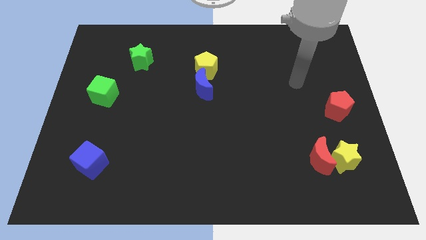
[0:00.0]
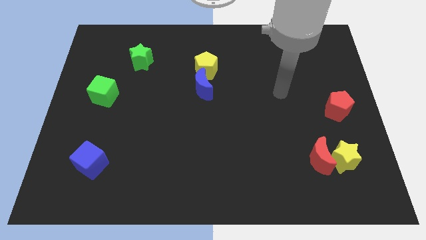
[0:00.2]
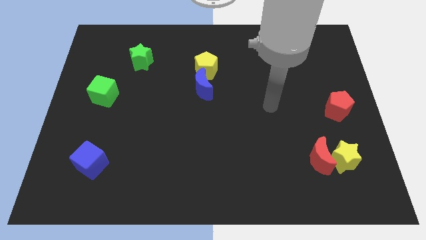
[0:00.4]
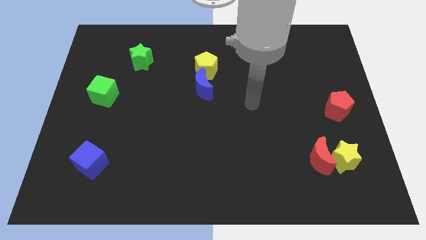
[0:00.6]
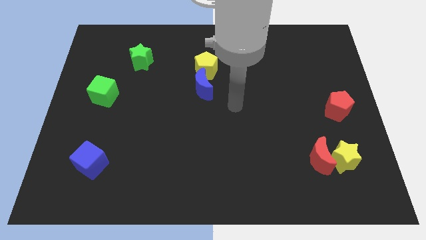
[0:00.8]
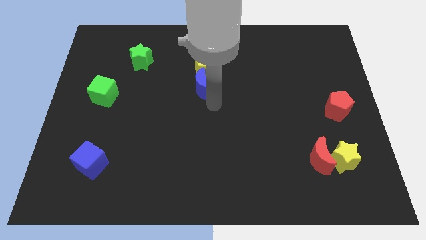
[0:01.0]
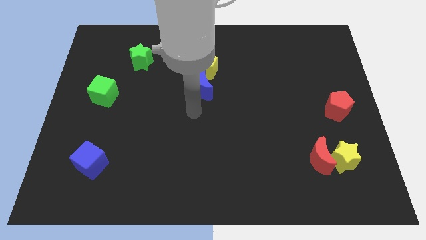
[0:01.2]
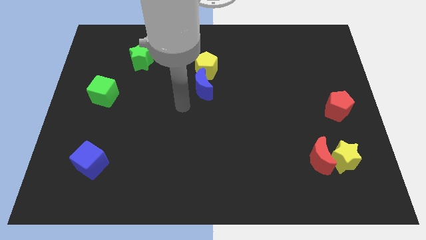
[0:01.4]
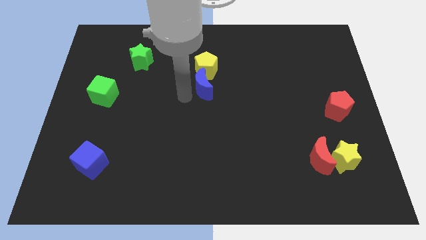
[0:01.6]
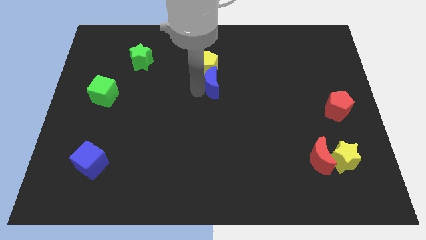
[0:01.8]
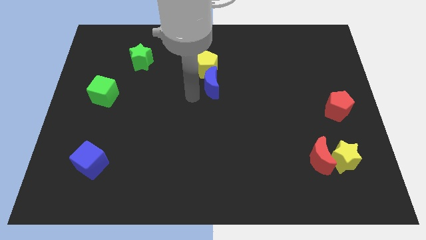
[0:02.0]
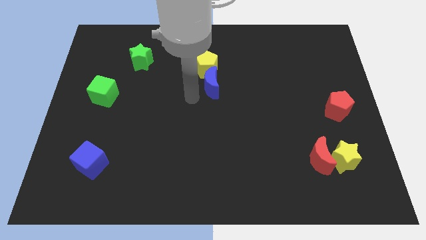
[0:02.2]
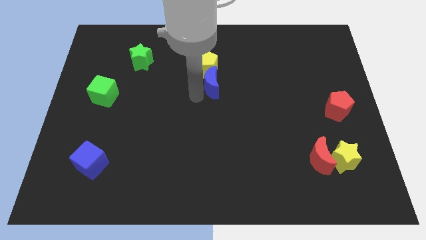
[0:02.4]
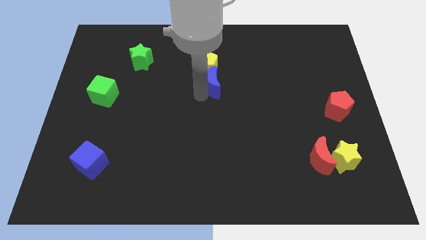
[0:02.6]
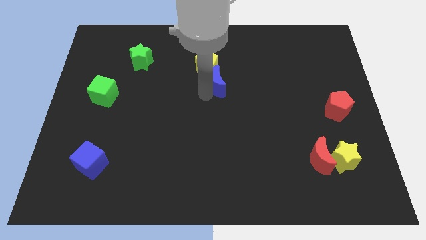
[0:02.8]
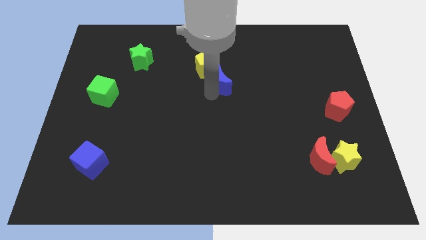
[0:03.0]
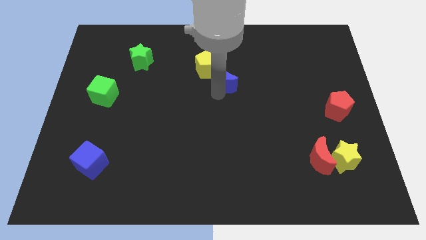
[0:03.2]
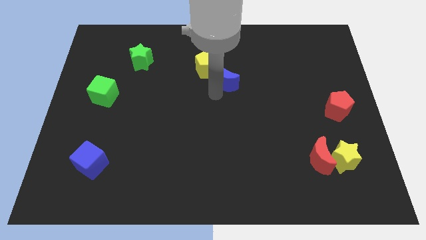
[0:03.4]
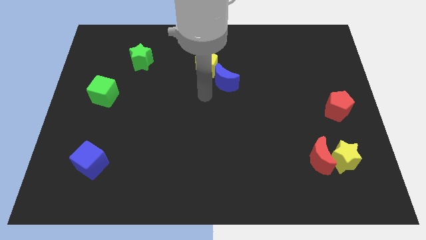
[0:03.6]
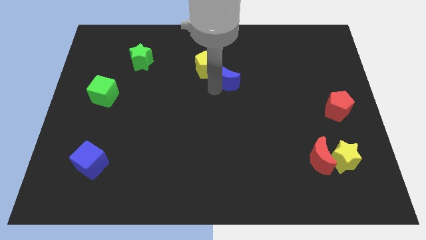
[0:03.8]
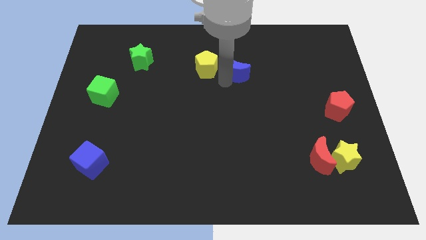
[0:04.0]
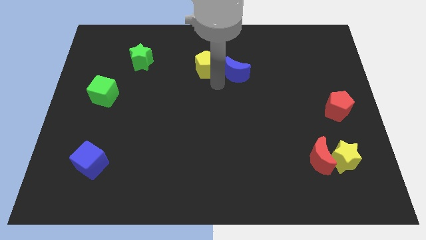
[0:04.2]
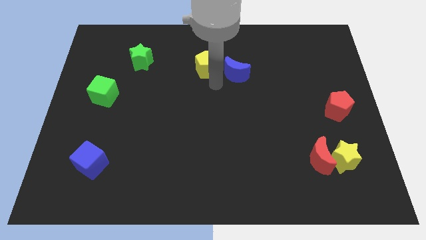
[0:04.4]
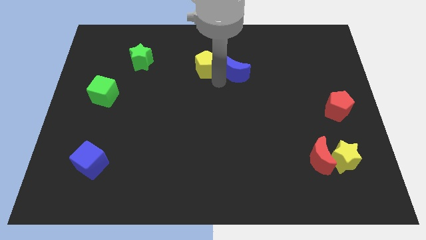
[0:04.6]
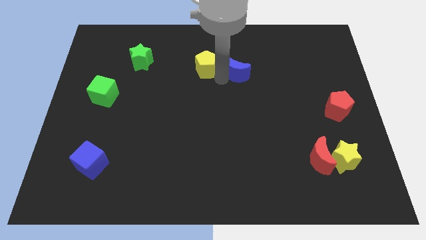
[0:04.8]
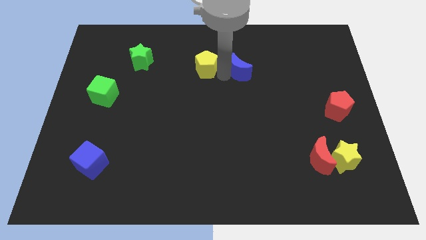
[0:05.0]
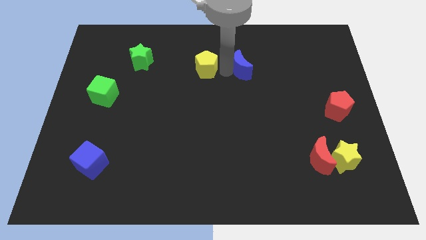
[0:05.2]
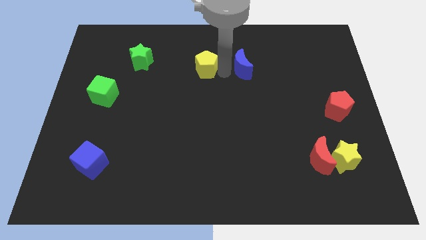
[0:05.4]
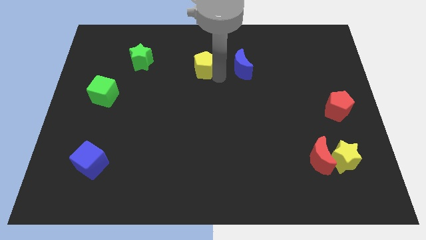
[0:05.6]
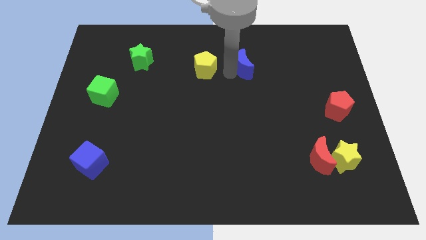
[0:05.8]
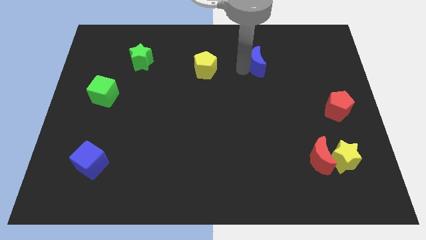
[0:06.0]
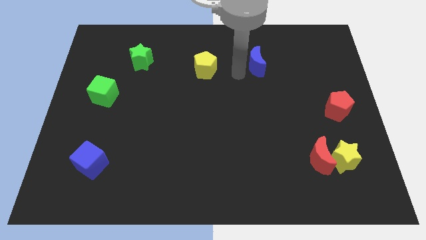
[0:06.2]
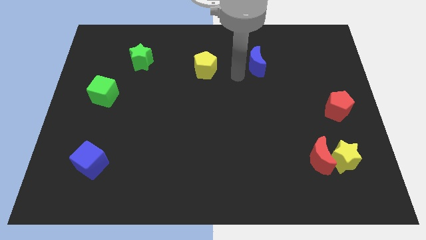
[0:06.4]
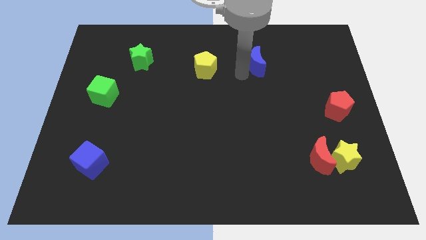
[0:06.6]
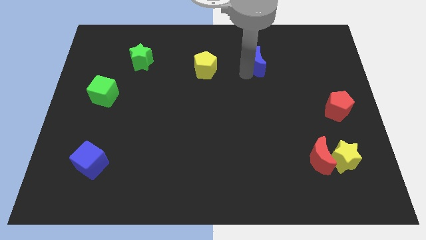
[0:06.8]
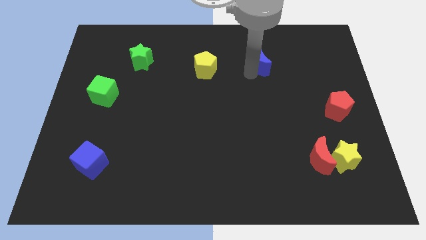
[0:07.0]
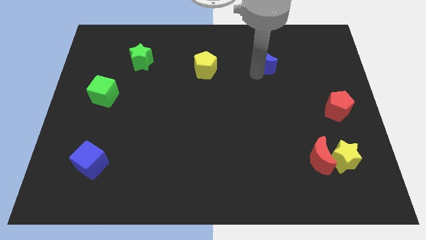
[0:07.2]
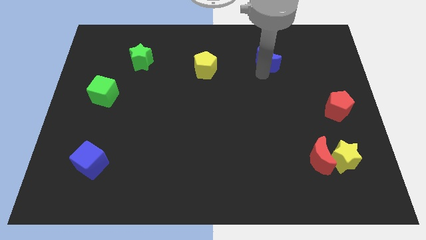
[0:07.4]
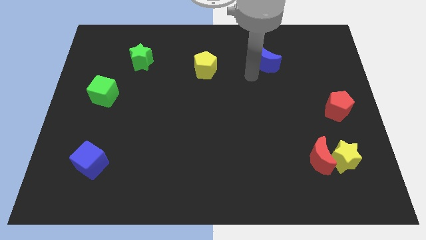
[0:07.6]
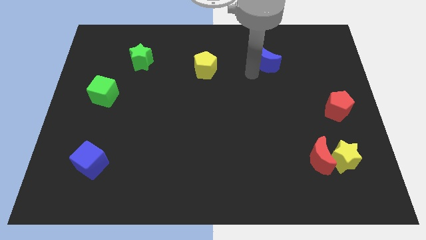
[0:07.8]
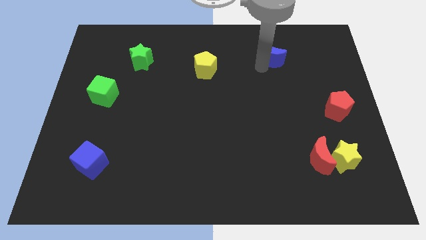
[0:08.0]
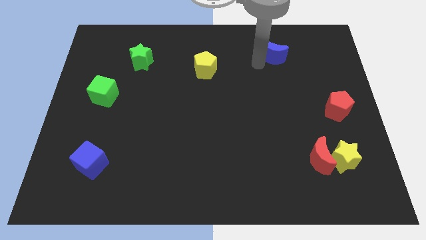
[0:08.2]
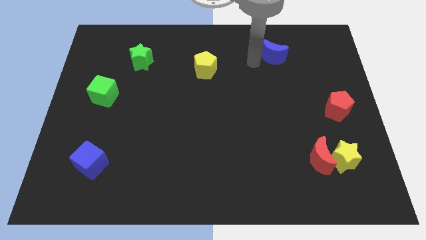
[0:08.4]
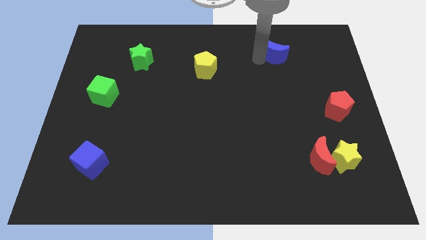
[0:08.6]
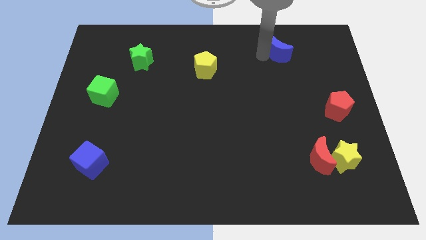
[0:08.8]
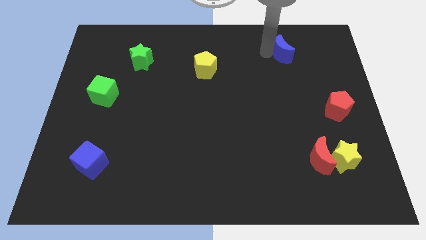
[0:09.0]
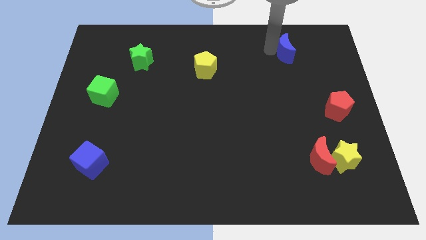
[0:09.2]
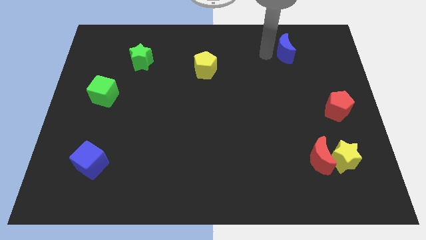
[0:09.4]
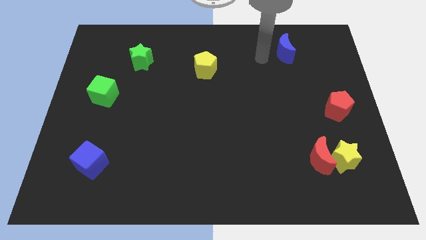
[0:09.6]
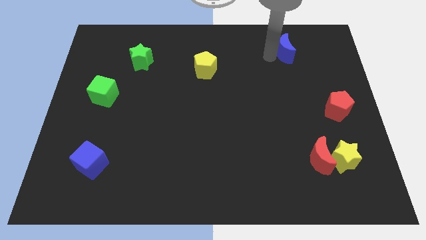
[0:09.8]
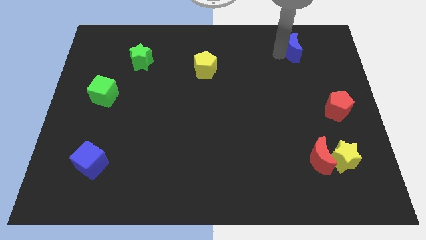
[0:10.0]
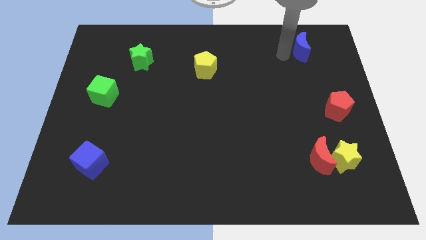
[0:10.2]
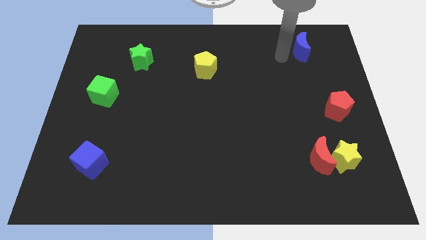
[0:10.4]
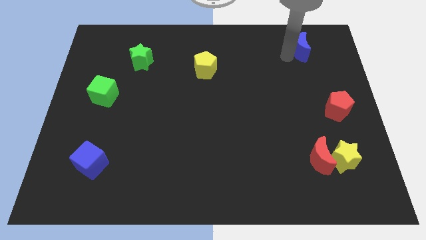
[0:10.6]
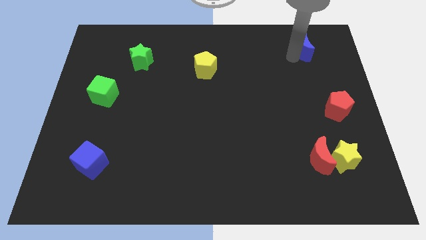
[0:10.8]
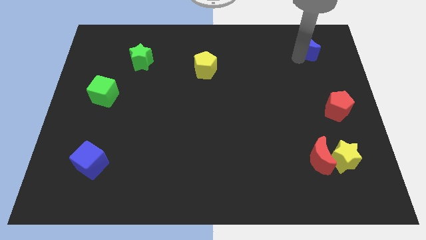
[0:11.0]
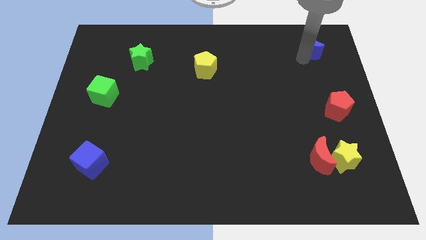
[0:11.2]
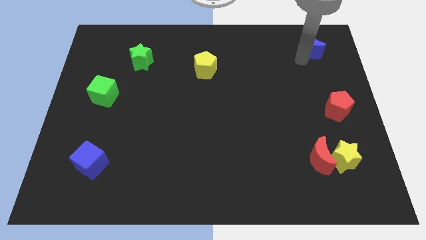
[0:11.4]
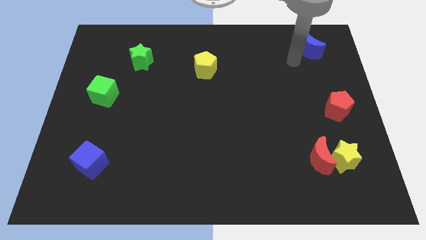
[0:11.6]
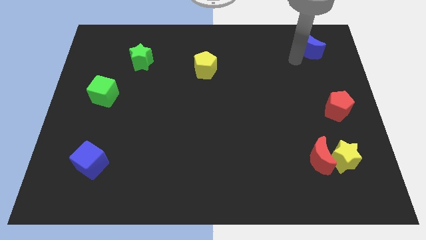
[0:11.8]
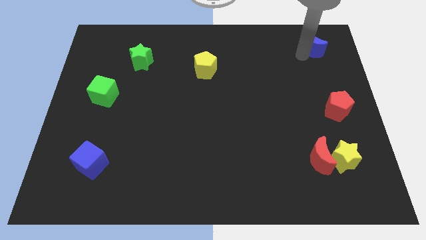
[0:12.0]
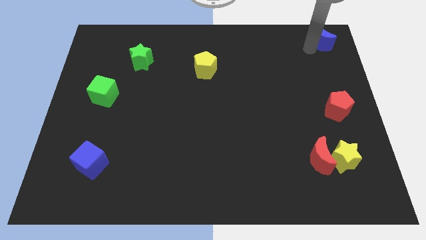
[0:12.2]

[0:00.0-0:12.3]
slide the blue moon to the top right of the board

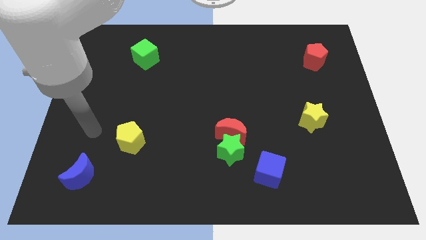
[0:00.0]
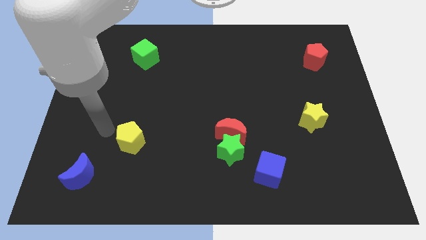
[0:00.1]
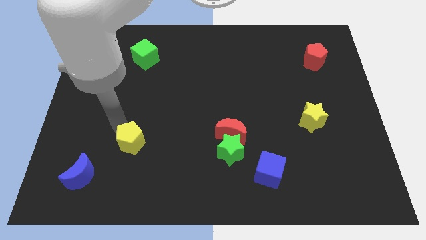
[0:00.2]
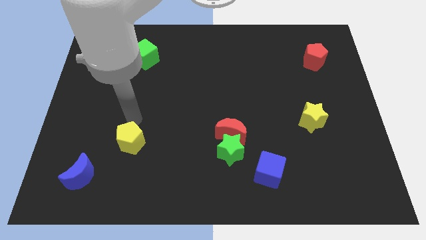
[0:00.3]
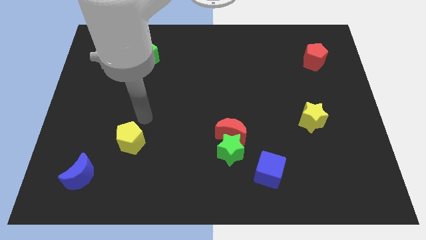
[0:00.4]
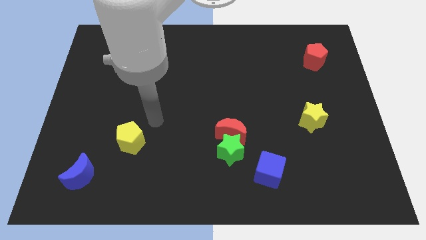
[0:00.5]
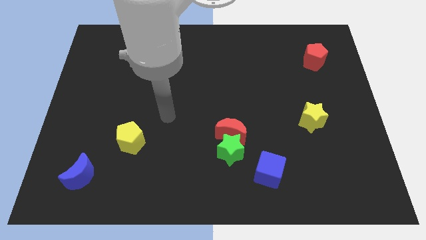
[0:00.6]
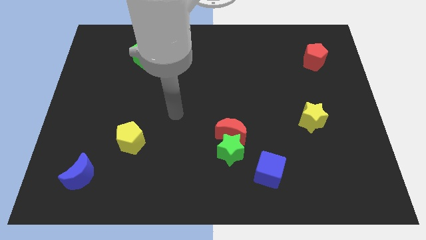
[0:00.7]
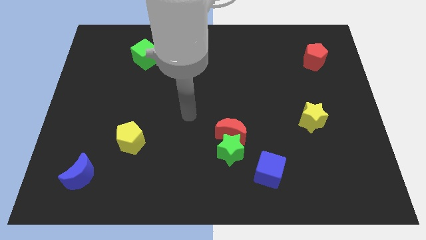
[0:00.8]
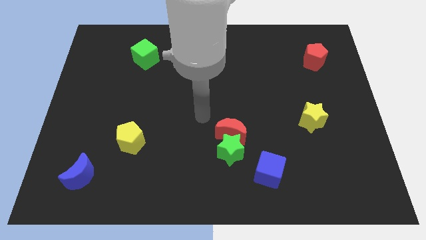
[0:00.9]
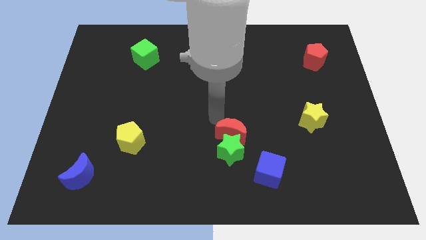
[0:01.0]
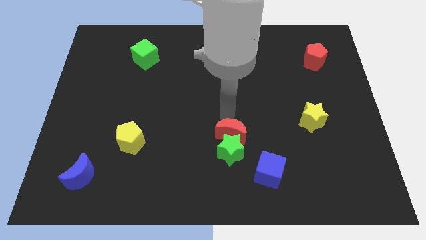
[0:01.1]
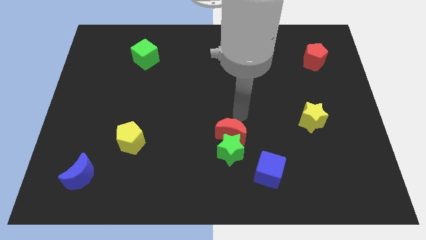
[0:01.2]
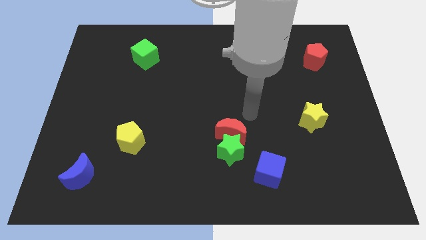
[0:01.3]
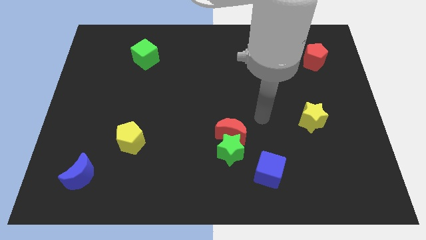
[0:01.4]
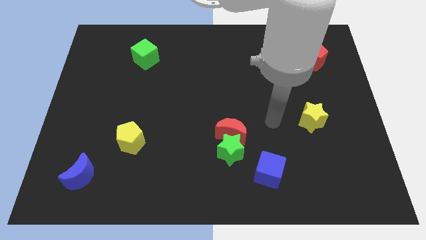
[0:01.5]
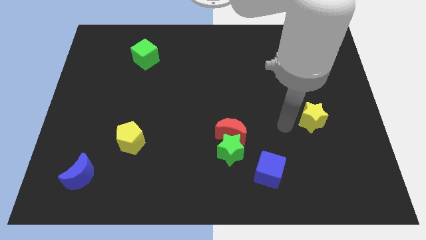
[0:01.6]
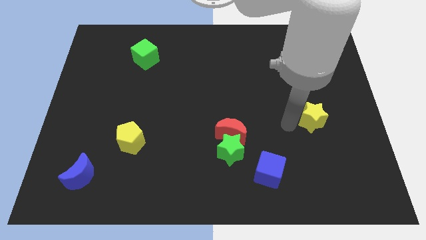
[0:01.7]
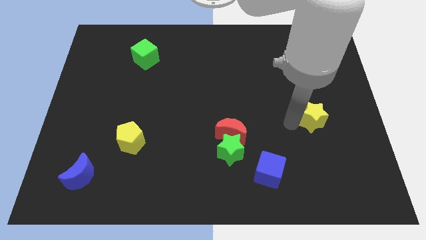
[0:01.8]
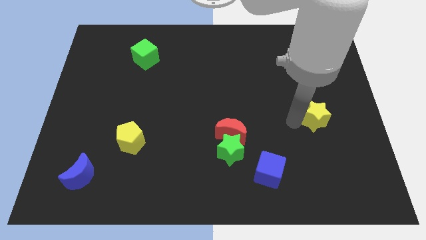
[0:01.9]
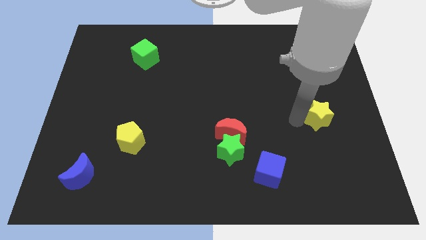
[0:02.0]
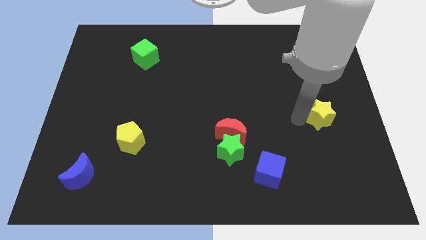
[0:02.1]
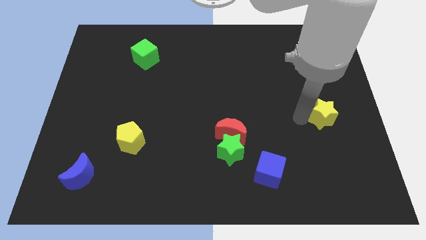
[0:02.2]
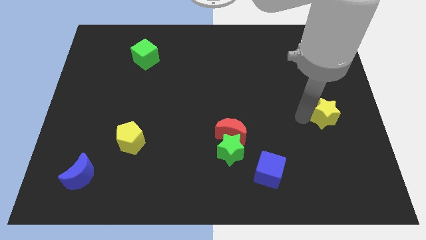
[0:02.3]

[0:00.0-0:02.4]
push the yellow star to the right side of the board
